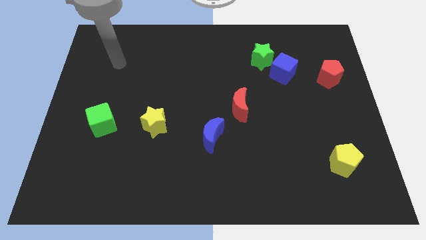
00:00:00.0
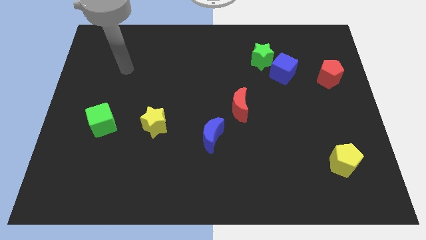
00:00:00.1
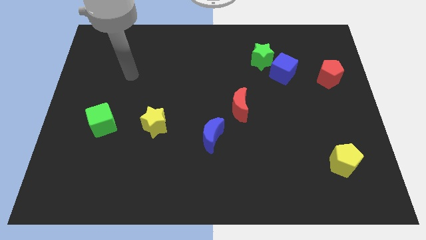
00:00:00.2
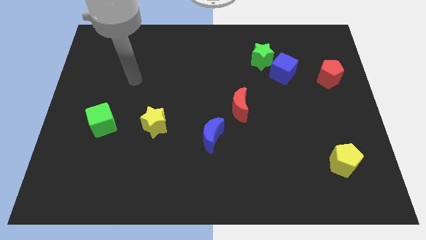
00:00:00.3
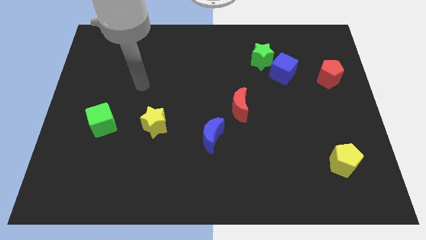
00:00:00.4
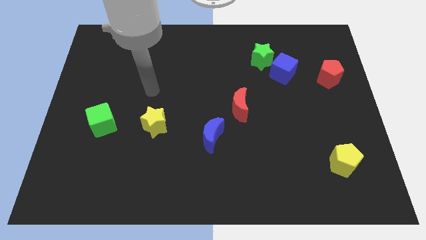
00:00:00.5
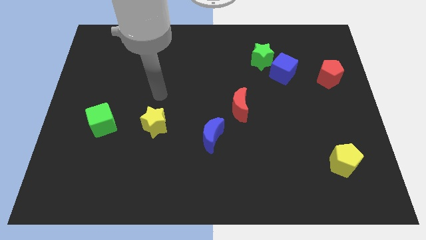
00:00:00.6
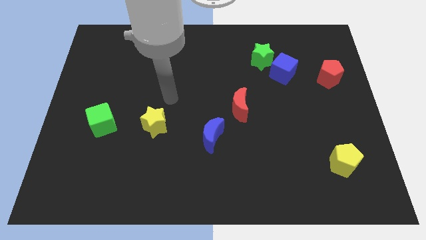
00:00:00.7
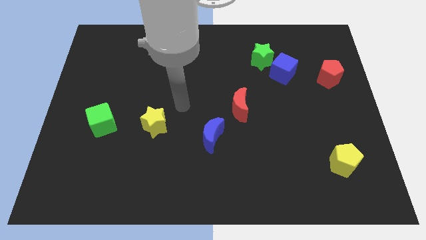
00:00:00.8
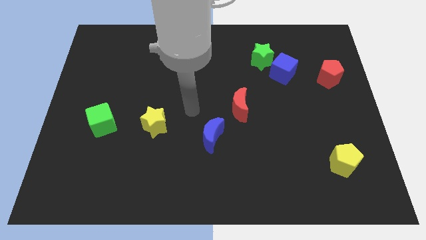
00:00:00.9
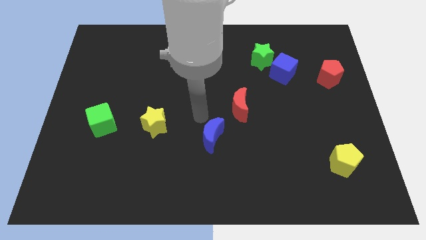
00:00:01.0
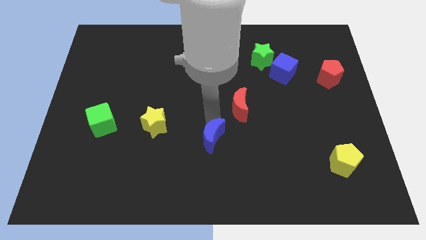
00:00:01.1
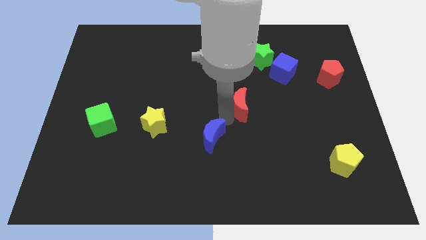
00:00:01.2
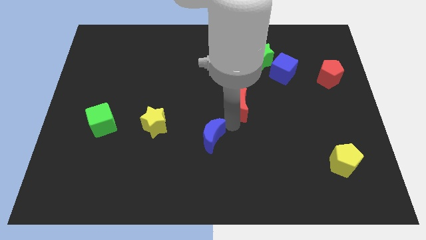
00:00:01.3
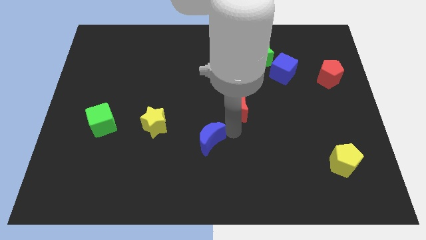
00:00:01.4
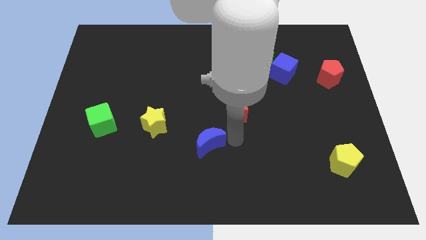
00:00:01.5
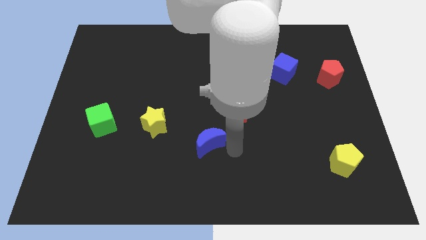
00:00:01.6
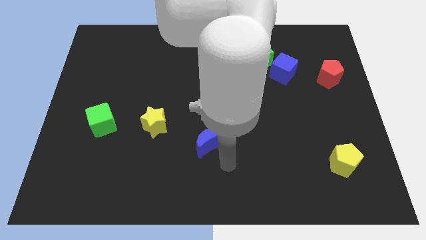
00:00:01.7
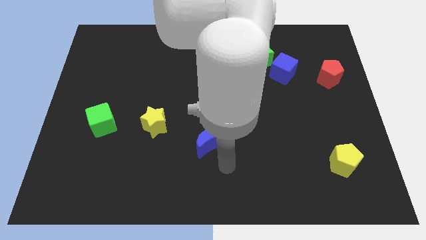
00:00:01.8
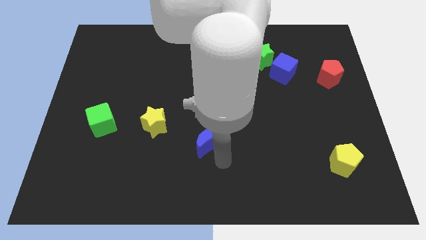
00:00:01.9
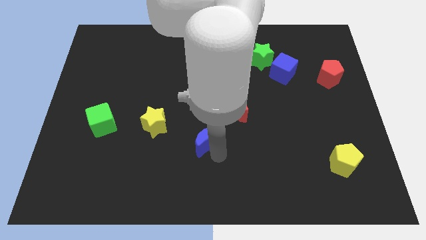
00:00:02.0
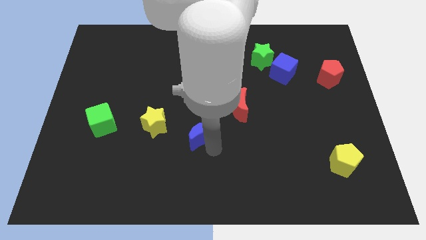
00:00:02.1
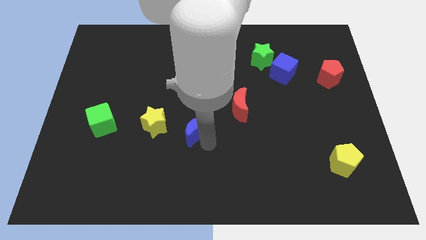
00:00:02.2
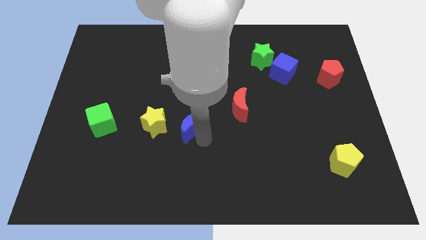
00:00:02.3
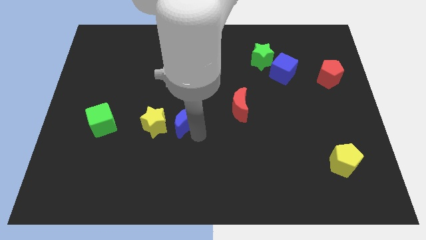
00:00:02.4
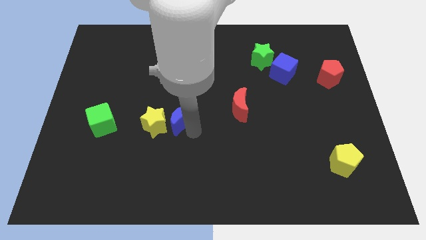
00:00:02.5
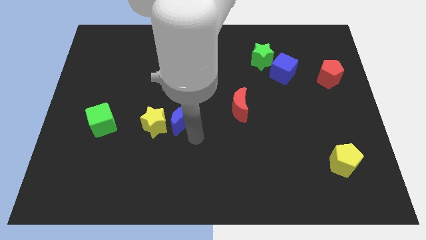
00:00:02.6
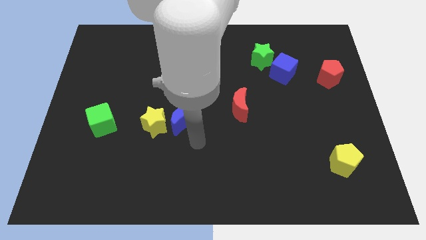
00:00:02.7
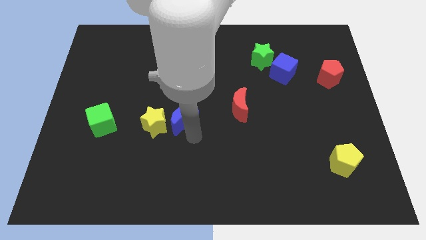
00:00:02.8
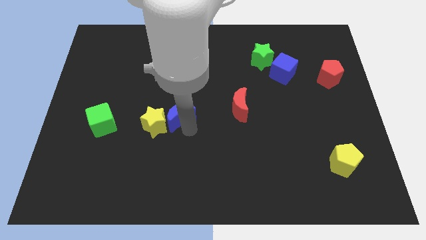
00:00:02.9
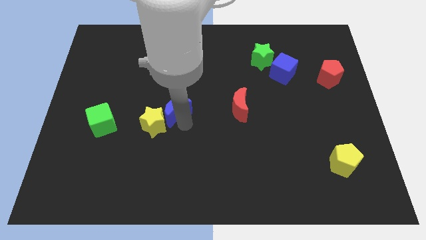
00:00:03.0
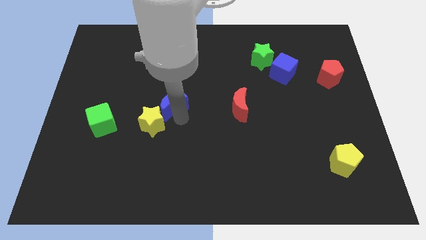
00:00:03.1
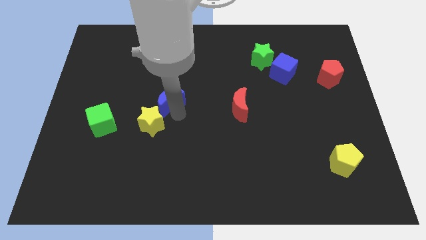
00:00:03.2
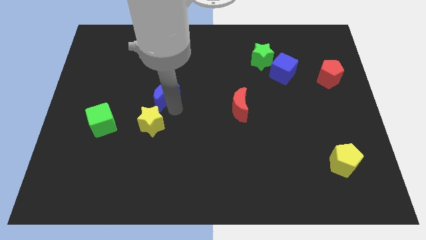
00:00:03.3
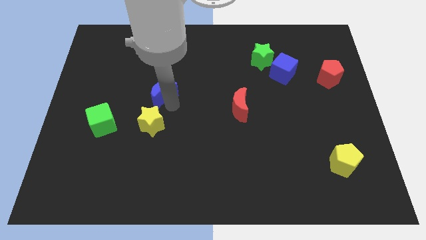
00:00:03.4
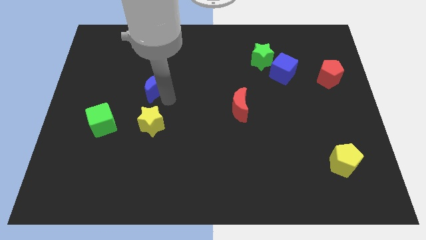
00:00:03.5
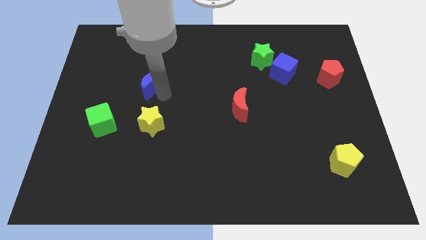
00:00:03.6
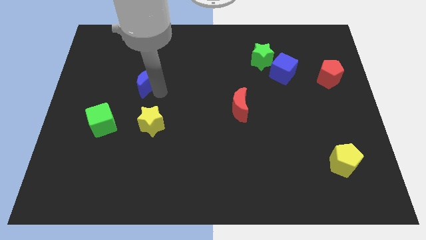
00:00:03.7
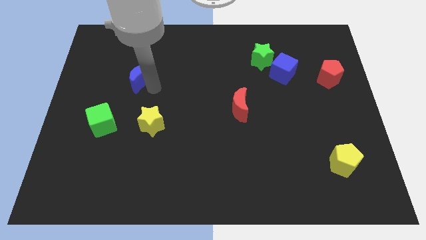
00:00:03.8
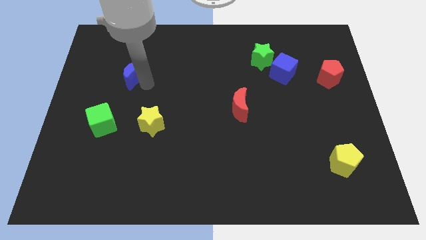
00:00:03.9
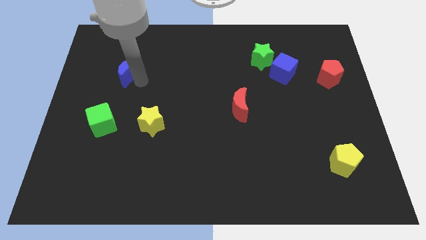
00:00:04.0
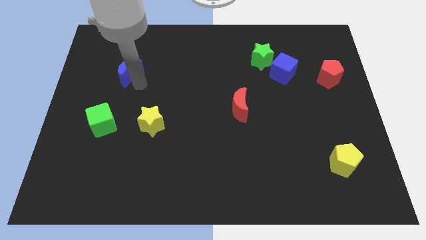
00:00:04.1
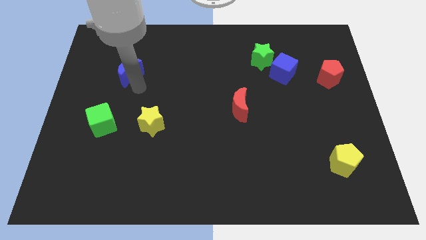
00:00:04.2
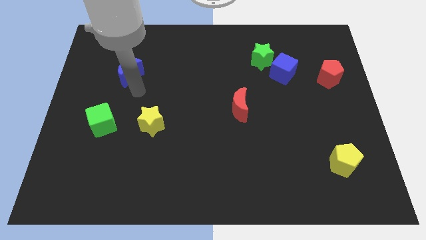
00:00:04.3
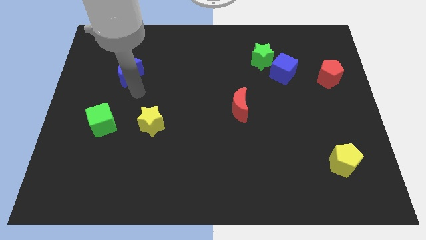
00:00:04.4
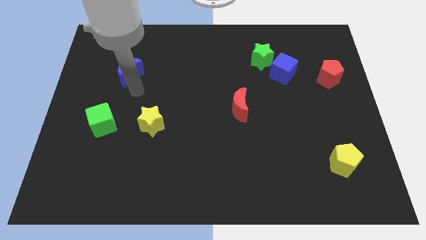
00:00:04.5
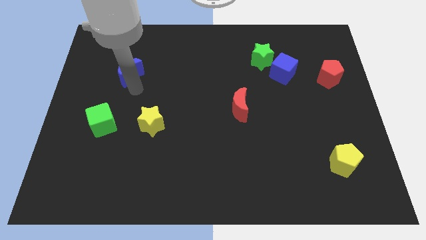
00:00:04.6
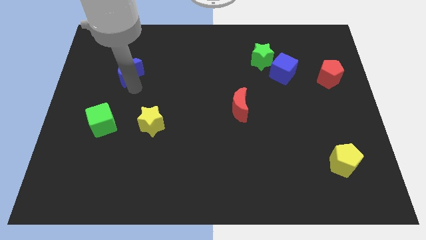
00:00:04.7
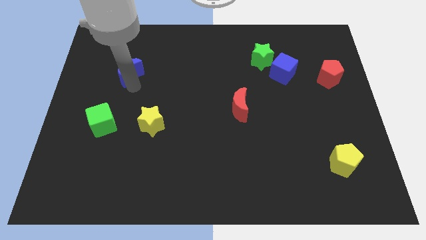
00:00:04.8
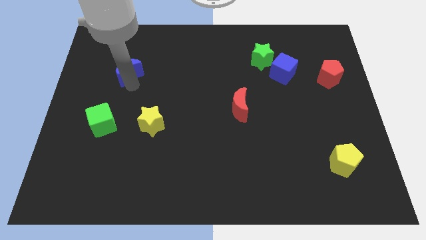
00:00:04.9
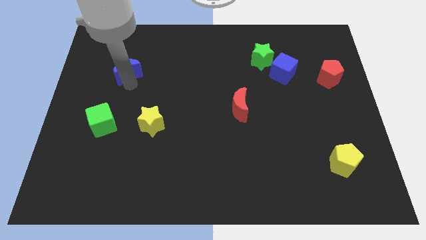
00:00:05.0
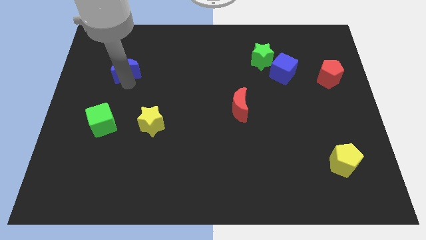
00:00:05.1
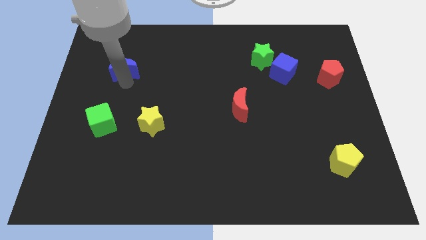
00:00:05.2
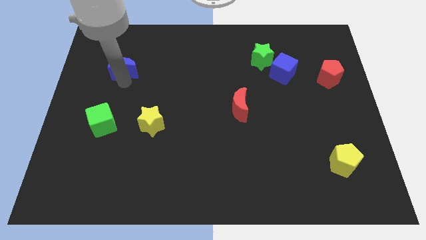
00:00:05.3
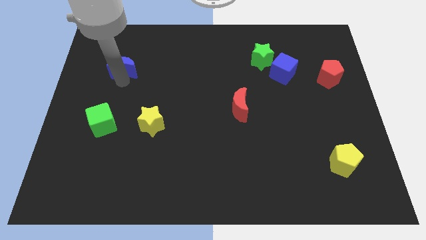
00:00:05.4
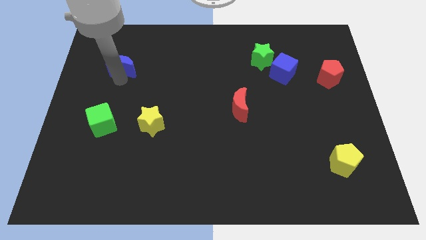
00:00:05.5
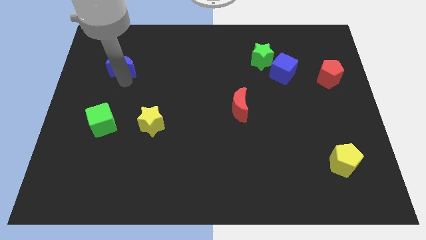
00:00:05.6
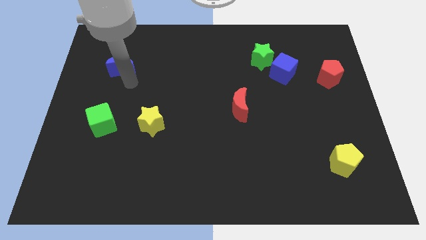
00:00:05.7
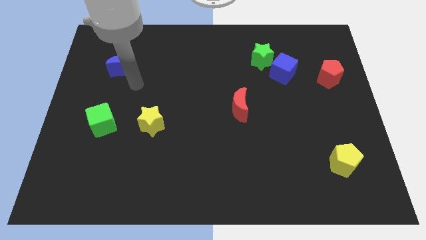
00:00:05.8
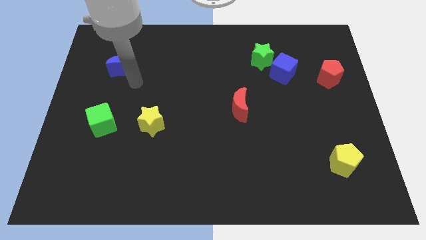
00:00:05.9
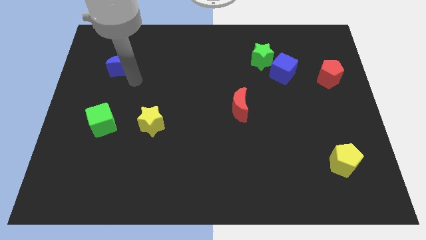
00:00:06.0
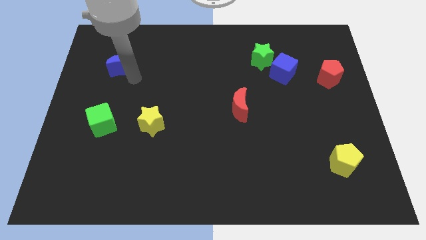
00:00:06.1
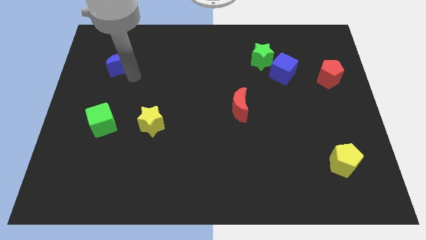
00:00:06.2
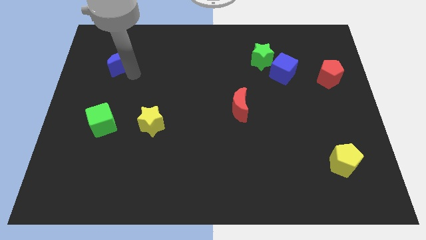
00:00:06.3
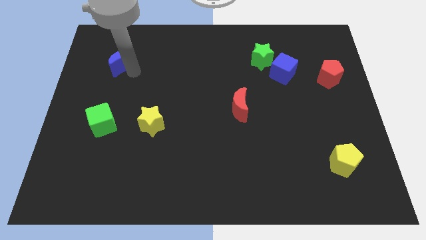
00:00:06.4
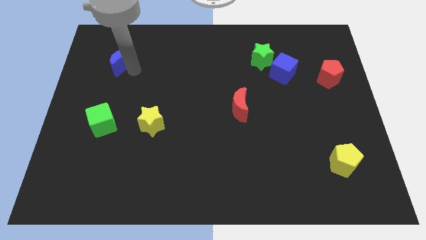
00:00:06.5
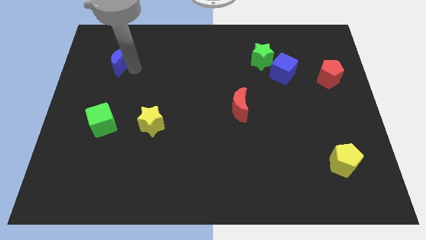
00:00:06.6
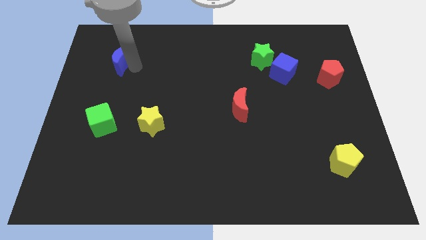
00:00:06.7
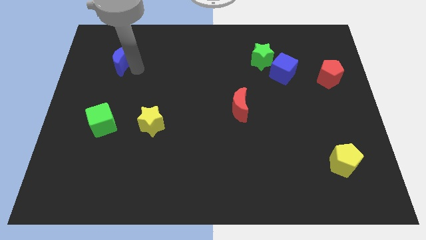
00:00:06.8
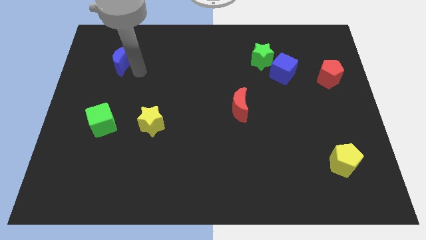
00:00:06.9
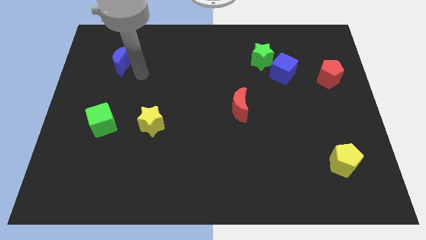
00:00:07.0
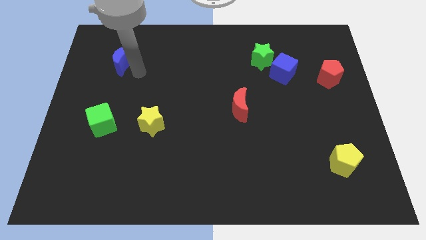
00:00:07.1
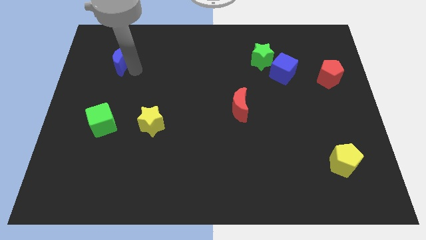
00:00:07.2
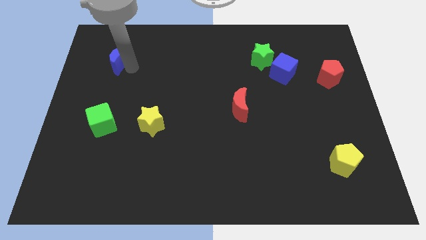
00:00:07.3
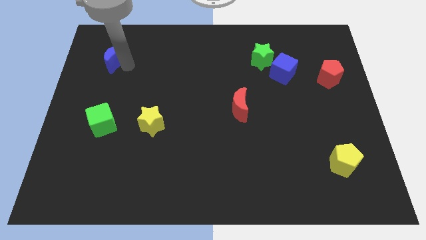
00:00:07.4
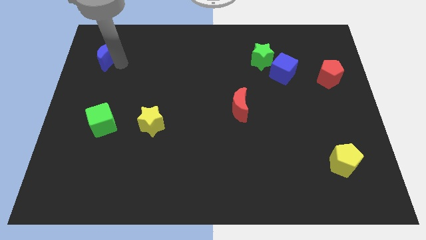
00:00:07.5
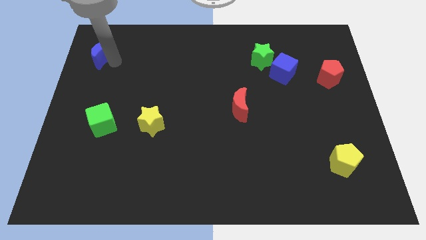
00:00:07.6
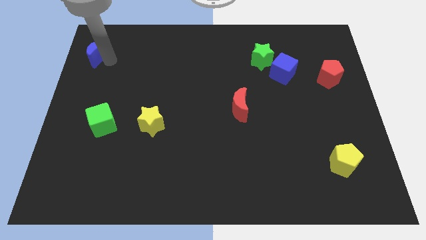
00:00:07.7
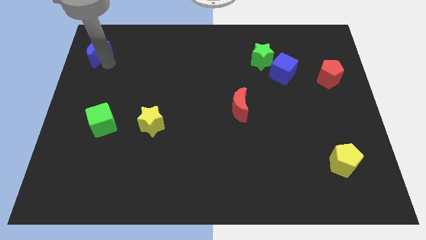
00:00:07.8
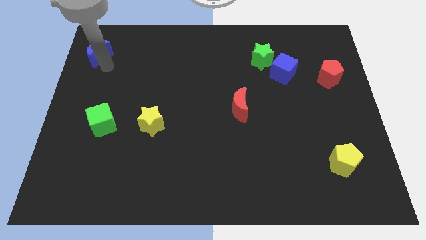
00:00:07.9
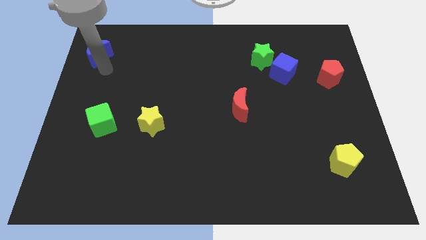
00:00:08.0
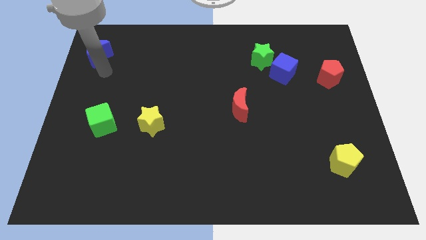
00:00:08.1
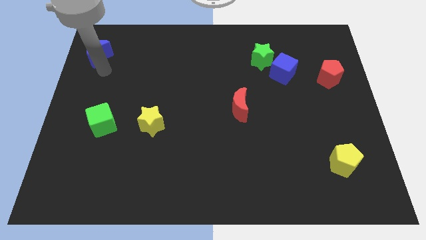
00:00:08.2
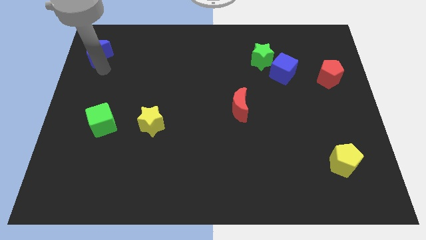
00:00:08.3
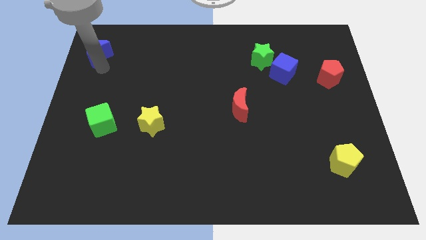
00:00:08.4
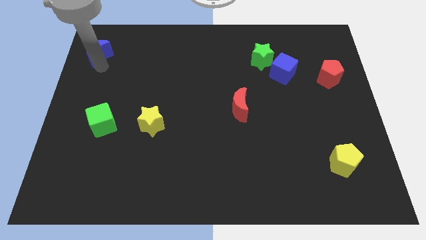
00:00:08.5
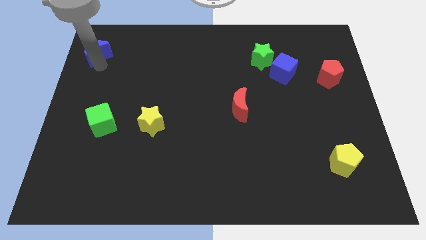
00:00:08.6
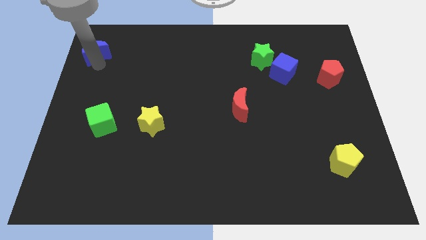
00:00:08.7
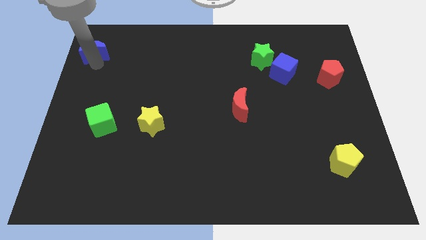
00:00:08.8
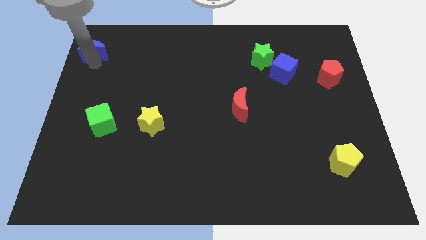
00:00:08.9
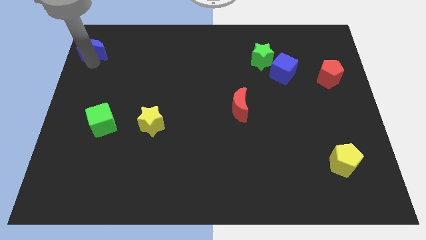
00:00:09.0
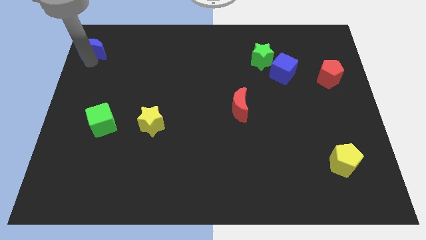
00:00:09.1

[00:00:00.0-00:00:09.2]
put the blue moon to the top left of the board
